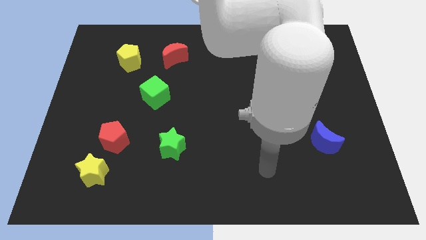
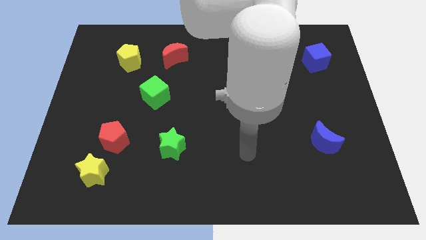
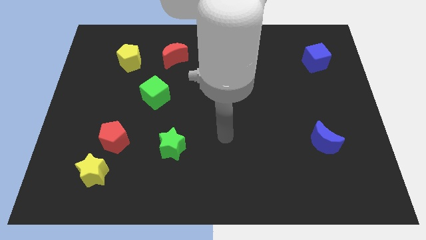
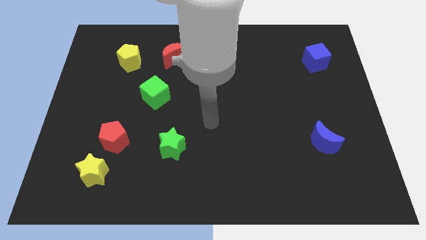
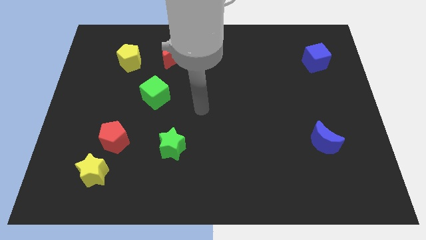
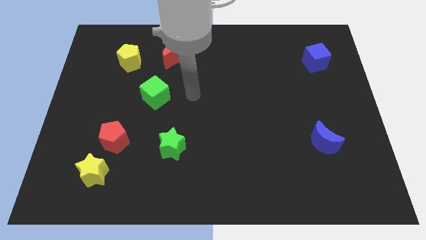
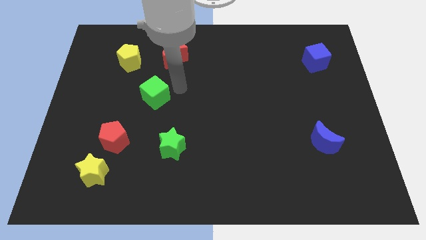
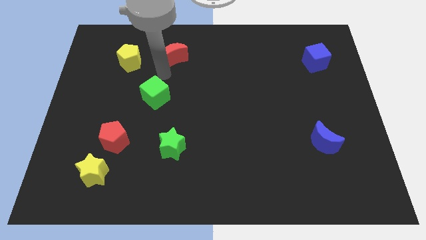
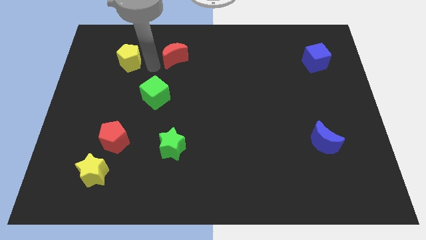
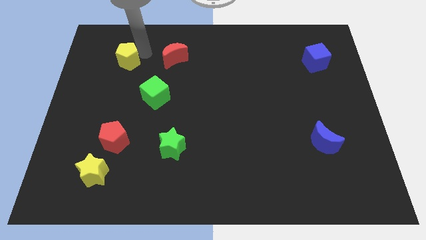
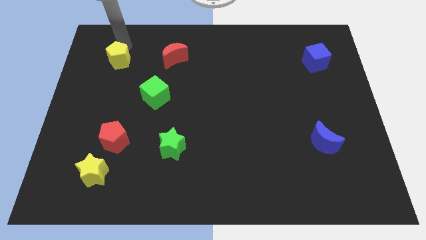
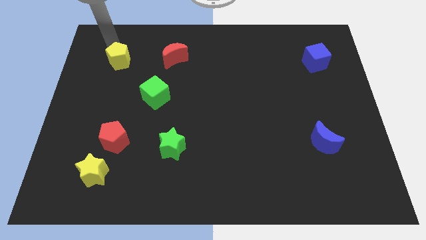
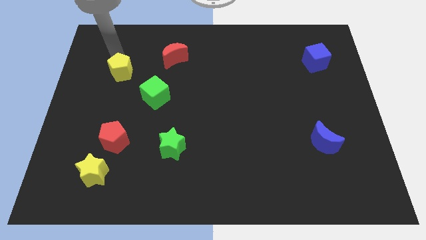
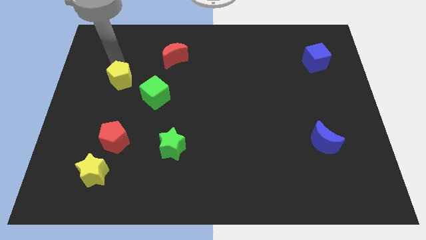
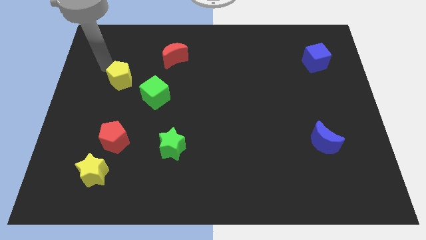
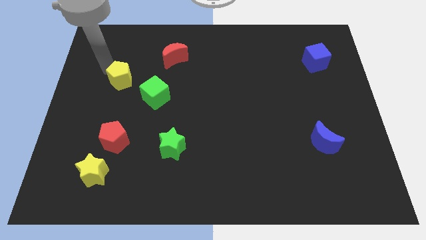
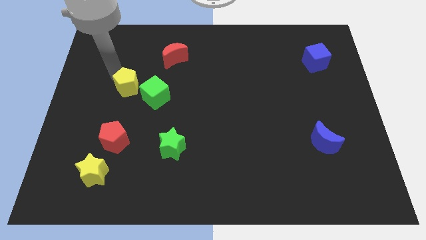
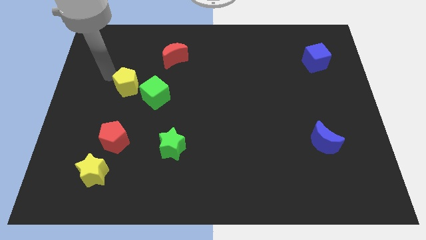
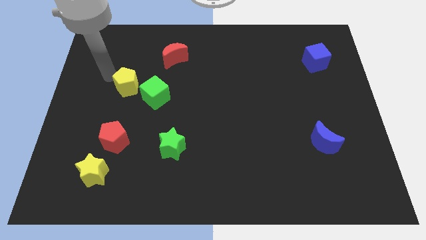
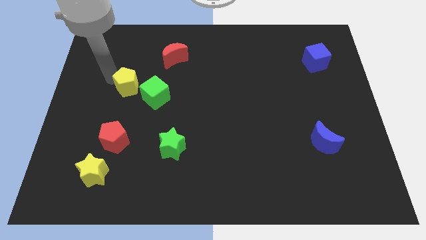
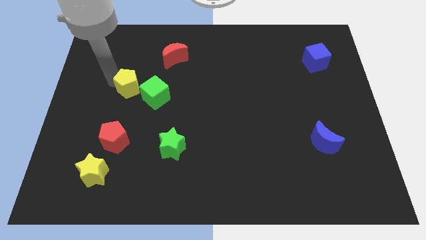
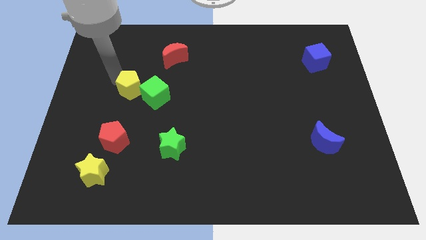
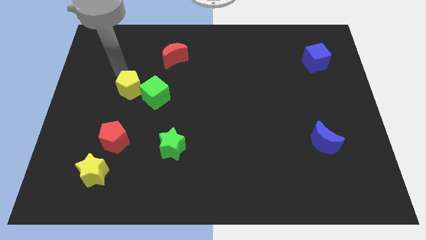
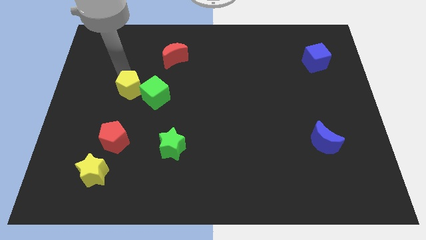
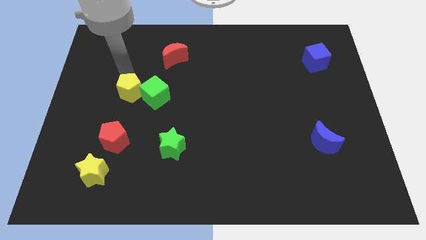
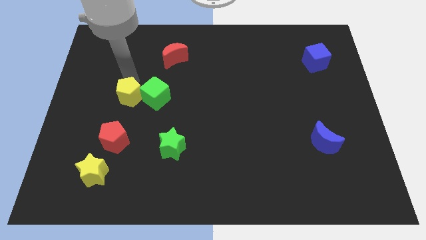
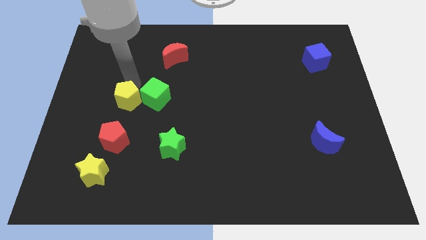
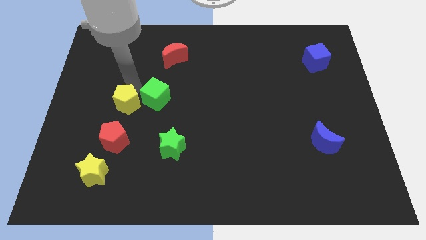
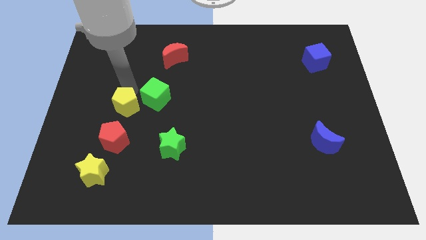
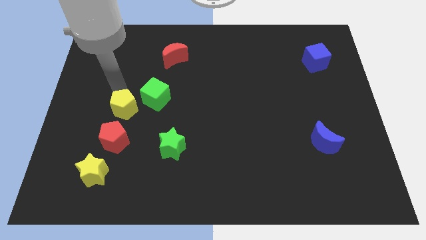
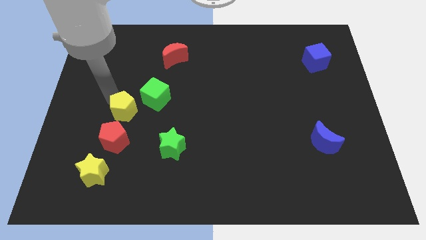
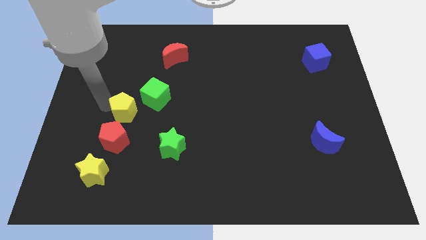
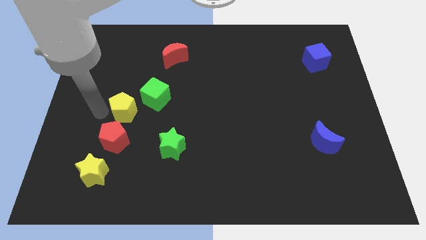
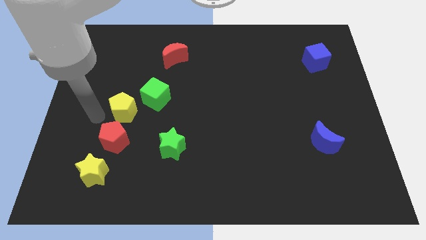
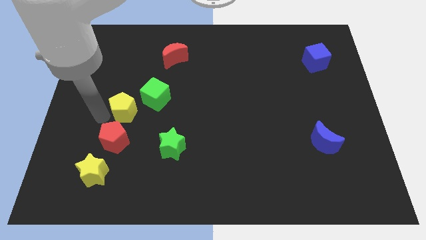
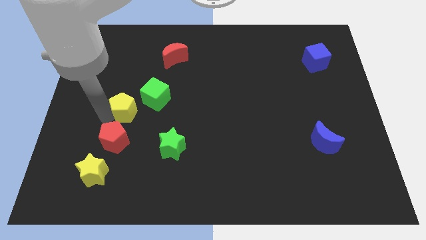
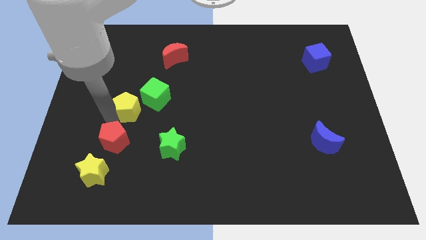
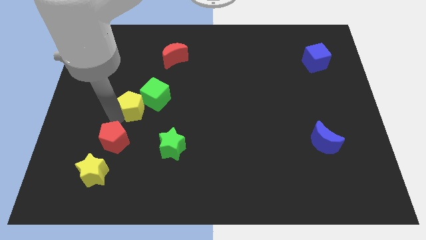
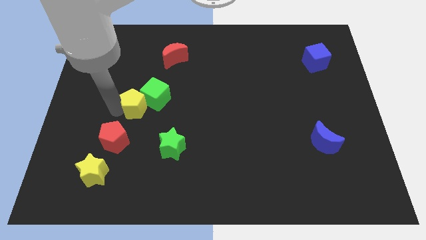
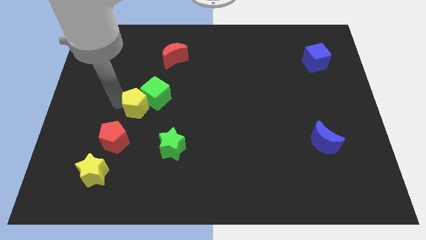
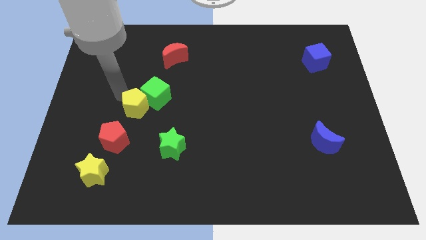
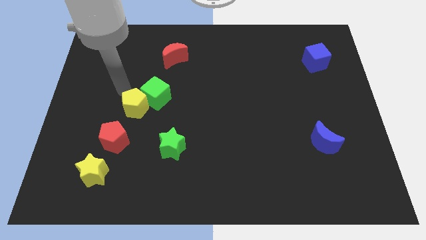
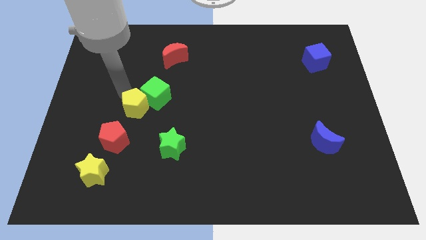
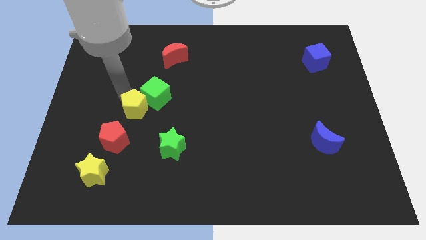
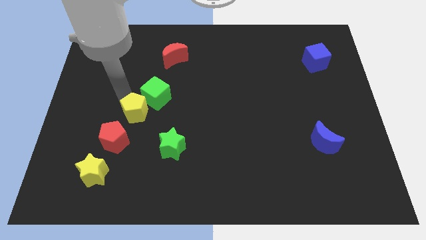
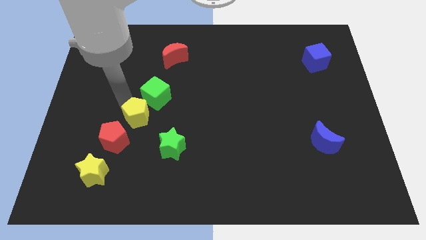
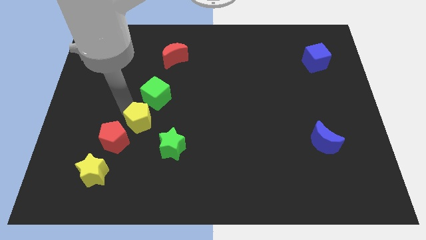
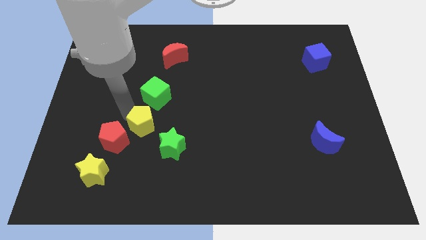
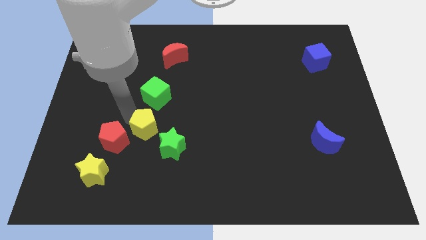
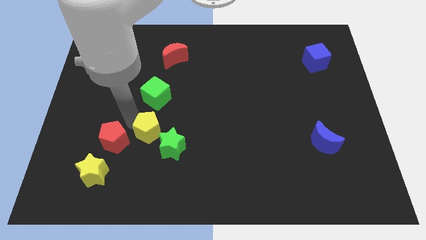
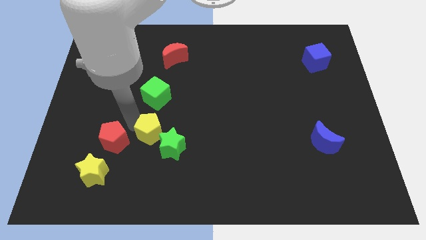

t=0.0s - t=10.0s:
slide the yellow pentagon towards the green star

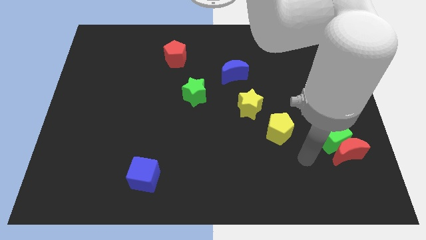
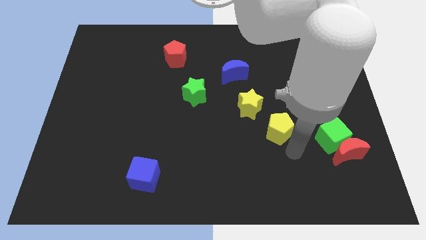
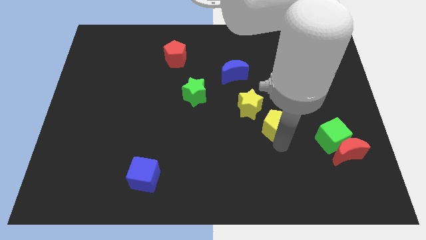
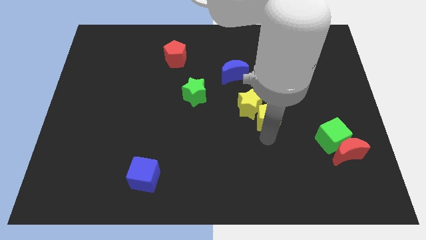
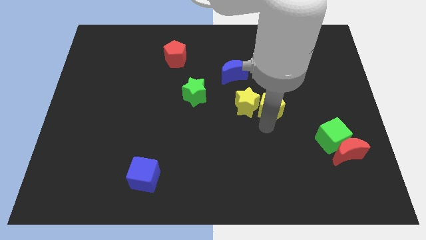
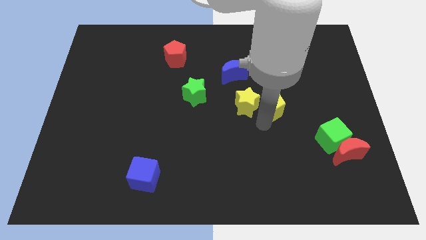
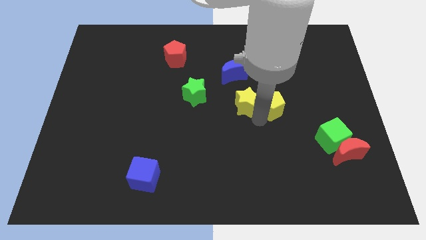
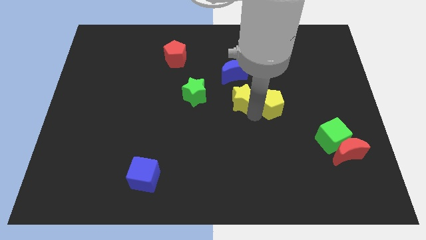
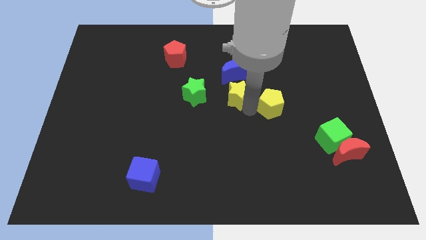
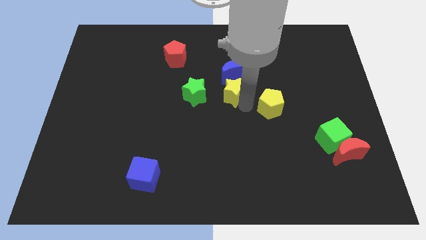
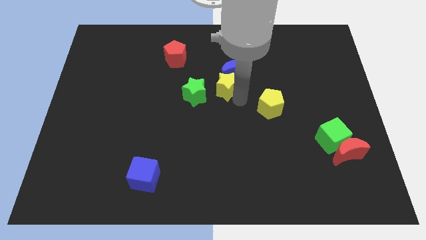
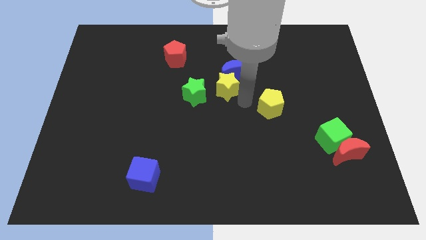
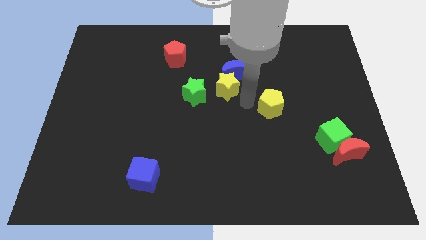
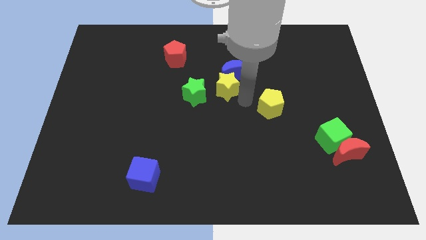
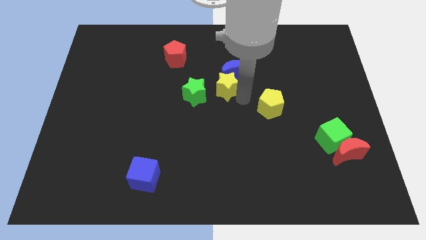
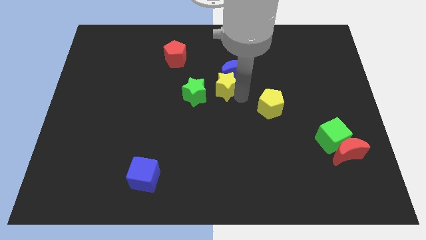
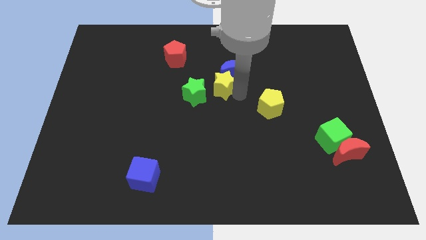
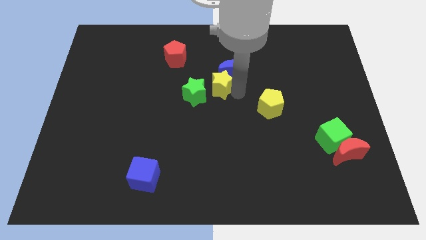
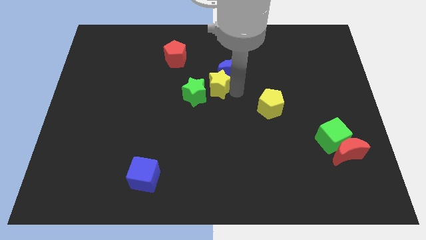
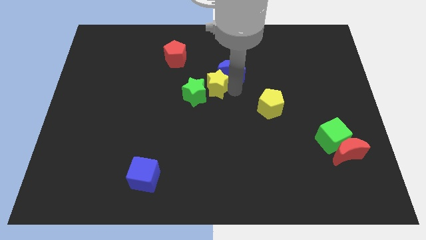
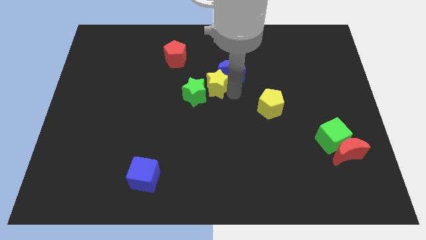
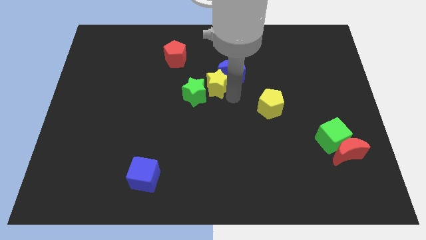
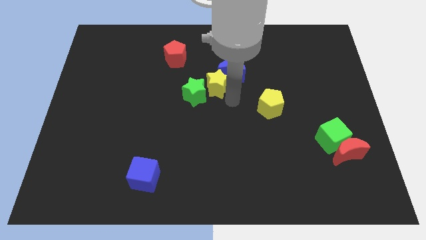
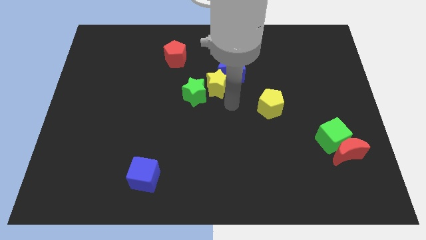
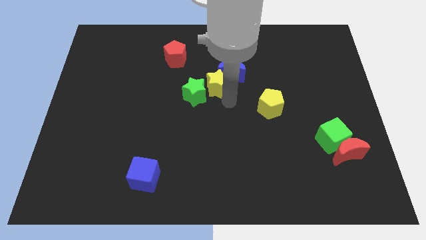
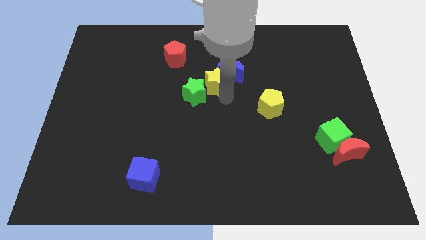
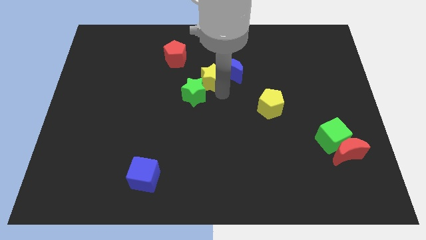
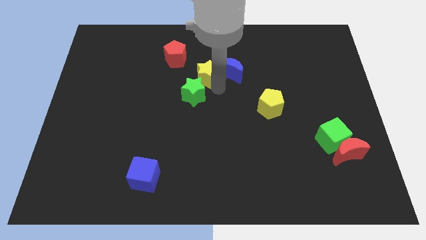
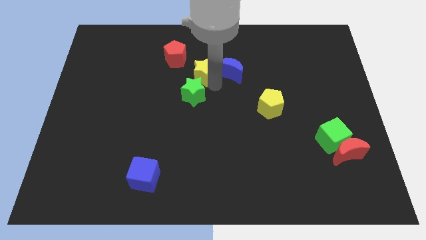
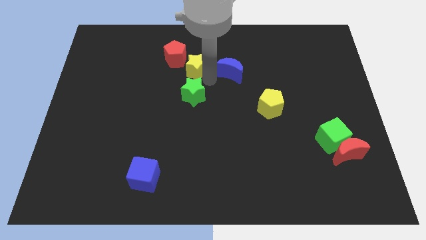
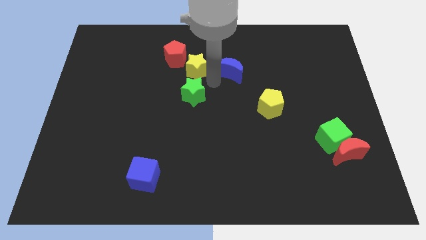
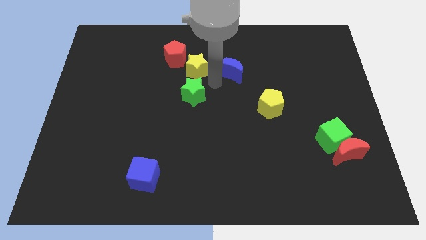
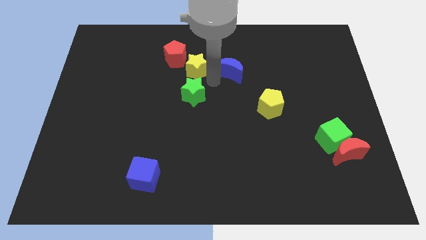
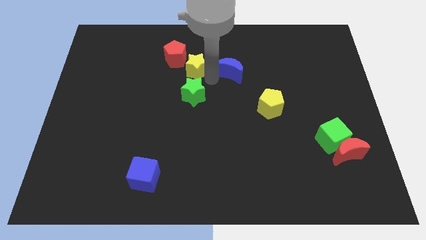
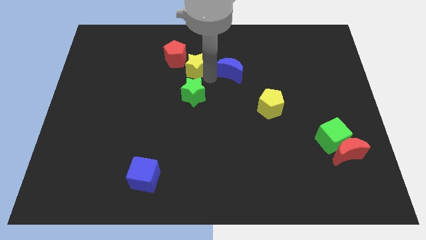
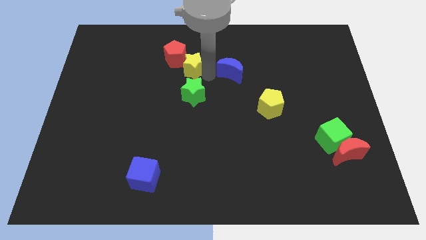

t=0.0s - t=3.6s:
move the yellow star to the red pentagon
